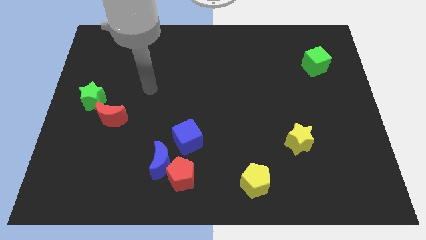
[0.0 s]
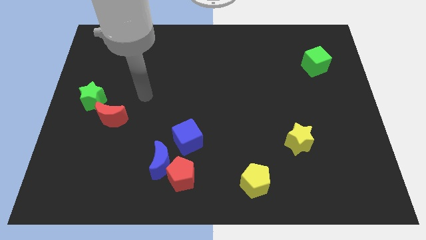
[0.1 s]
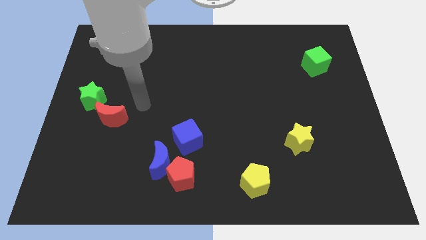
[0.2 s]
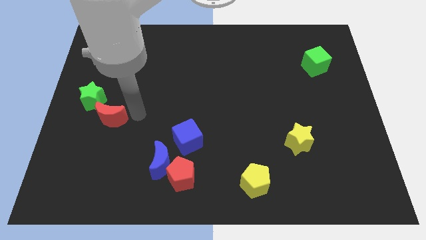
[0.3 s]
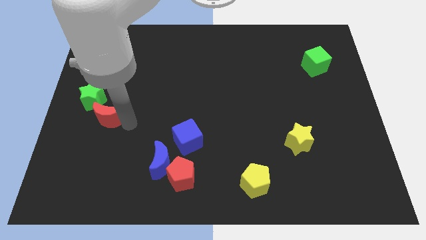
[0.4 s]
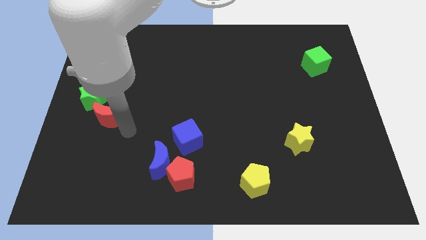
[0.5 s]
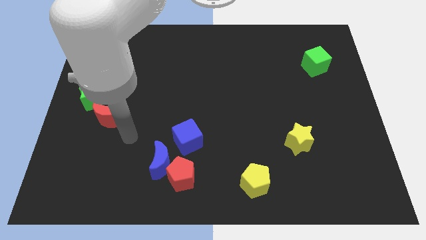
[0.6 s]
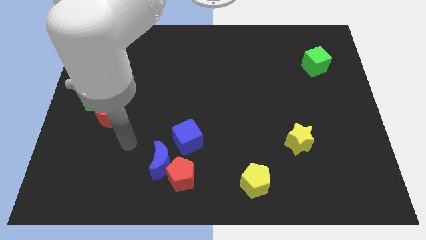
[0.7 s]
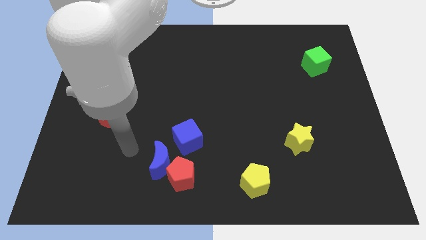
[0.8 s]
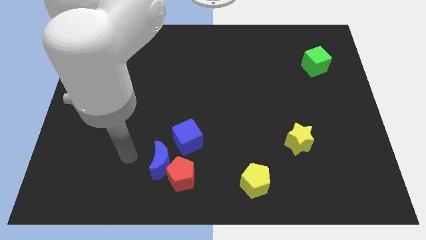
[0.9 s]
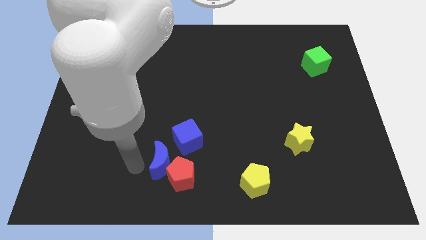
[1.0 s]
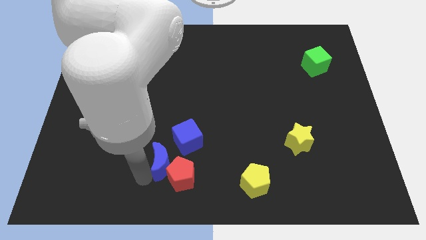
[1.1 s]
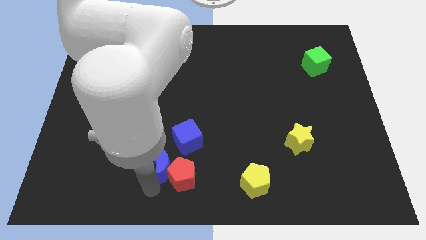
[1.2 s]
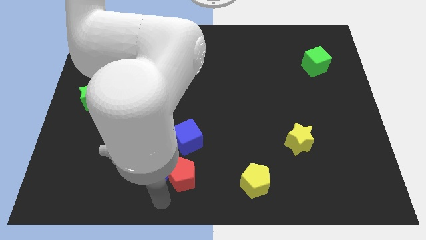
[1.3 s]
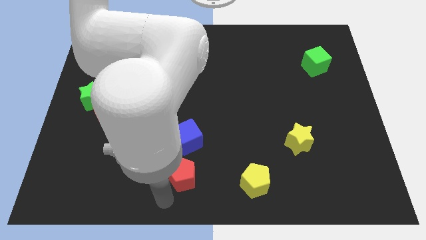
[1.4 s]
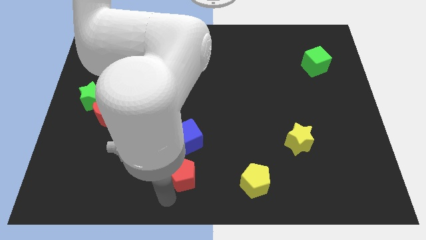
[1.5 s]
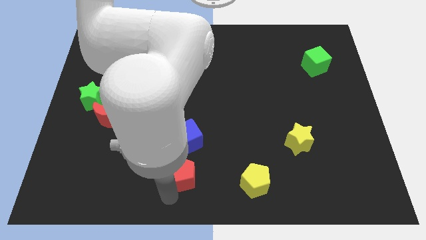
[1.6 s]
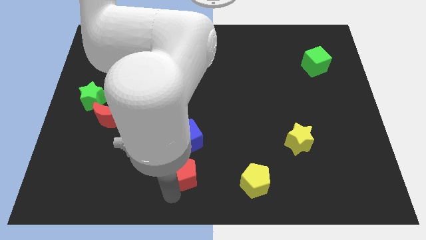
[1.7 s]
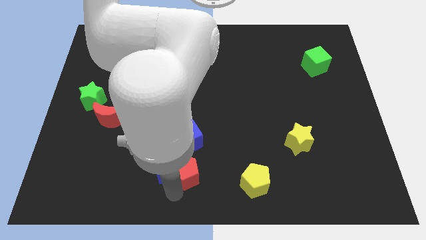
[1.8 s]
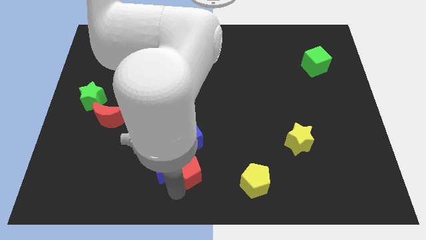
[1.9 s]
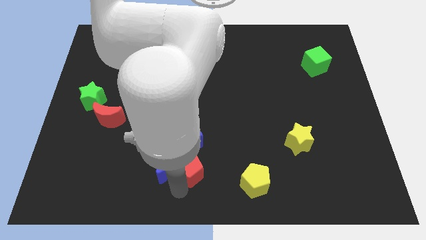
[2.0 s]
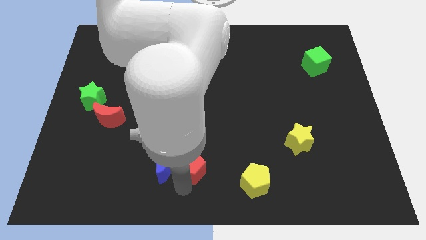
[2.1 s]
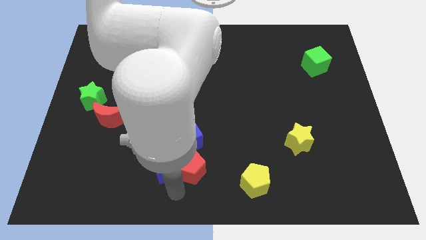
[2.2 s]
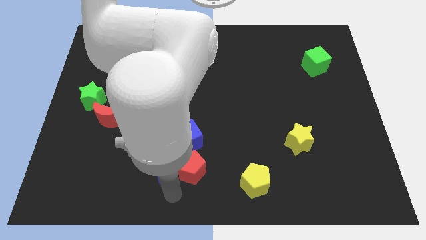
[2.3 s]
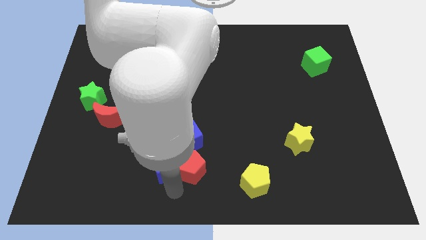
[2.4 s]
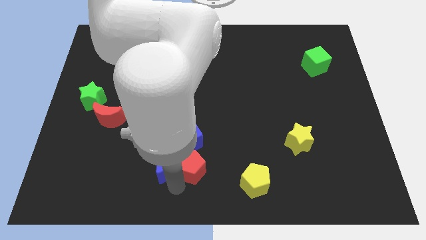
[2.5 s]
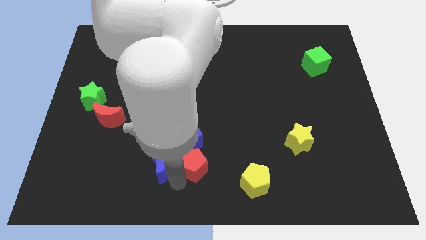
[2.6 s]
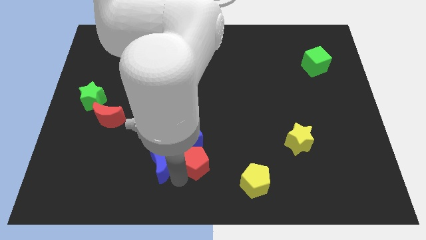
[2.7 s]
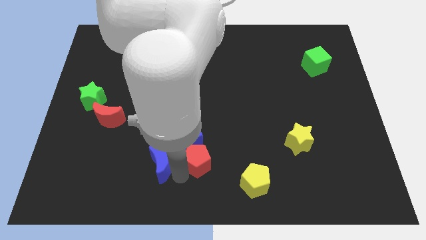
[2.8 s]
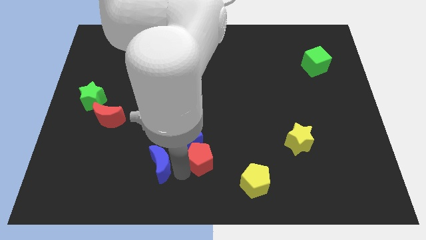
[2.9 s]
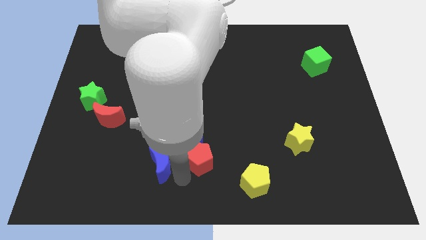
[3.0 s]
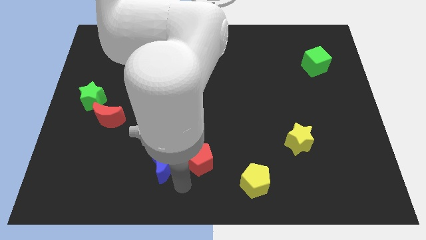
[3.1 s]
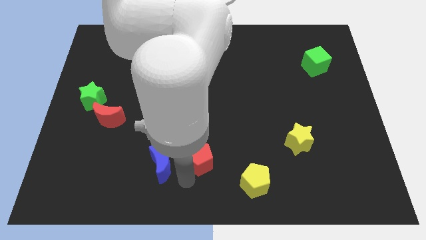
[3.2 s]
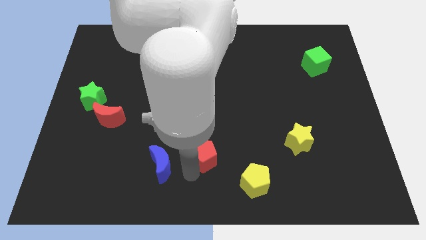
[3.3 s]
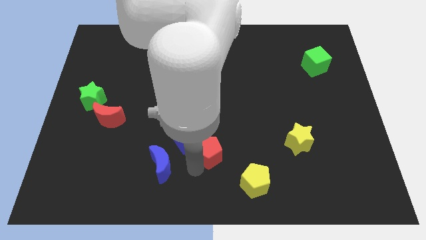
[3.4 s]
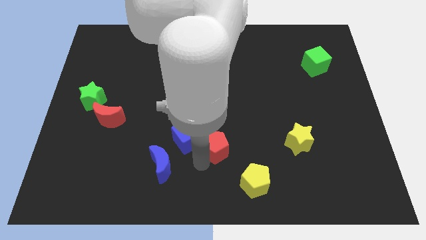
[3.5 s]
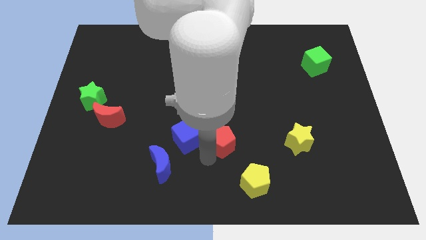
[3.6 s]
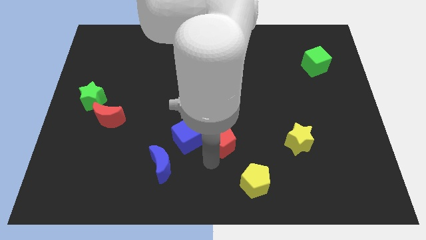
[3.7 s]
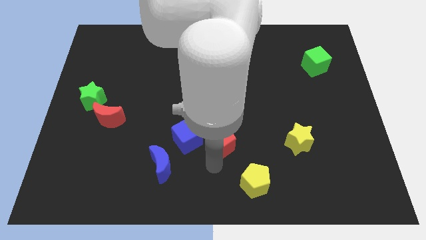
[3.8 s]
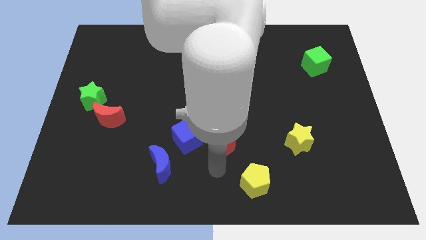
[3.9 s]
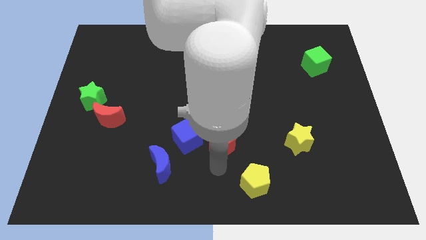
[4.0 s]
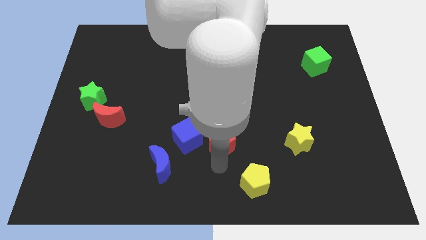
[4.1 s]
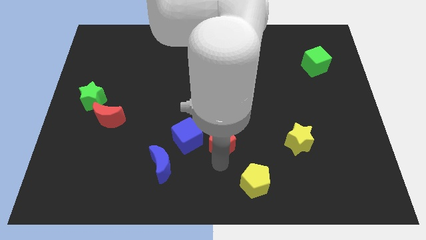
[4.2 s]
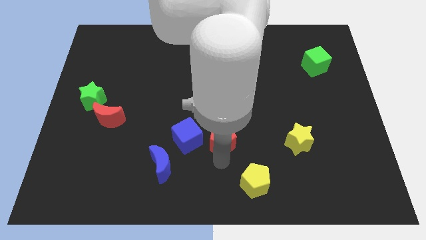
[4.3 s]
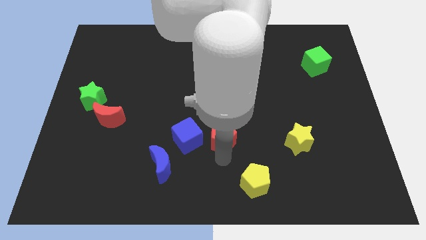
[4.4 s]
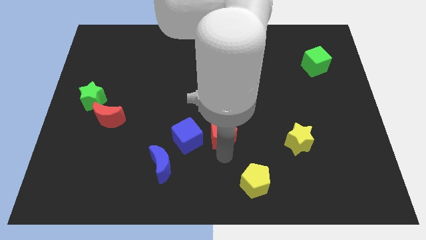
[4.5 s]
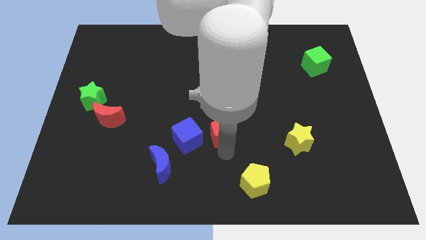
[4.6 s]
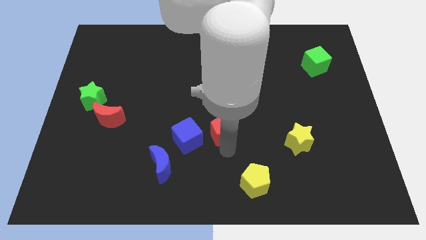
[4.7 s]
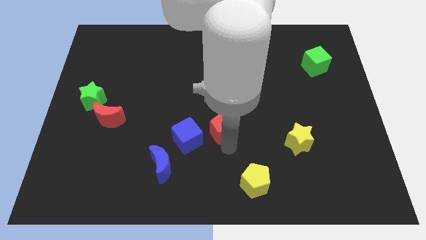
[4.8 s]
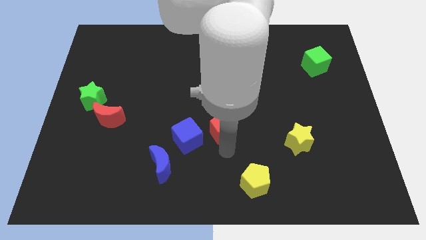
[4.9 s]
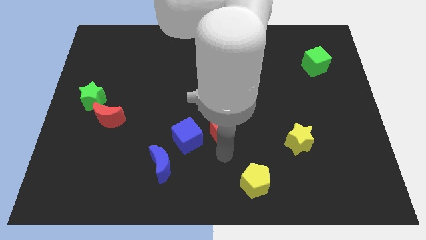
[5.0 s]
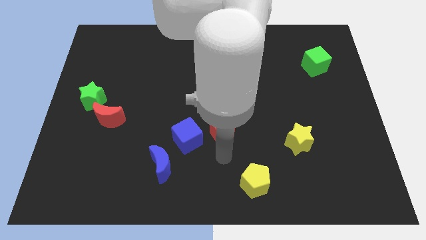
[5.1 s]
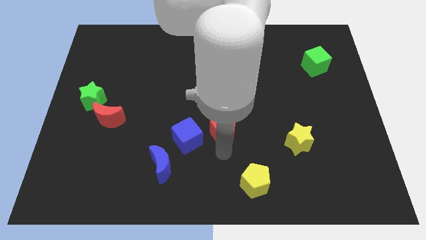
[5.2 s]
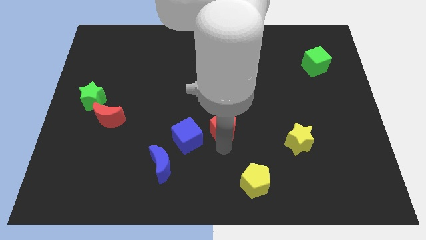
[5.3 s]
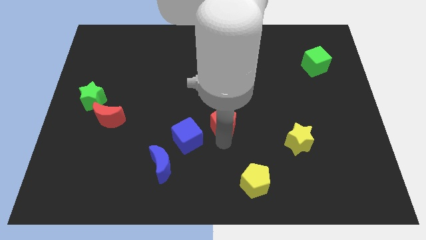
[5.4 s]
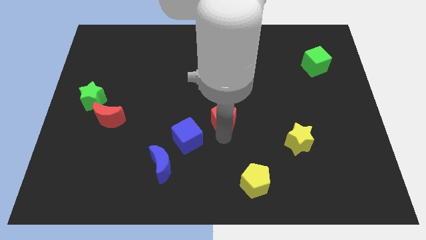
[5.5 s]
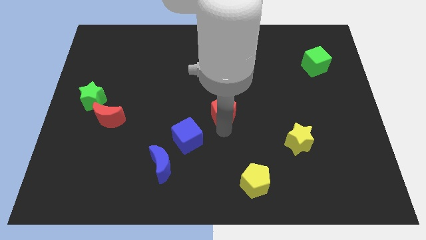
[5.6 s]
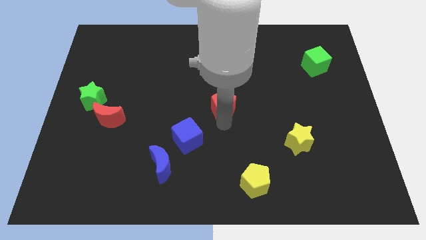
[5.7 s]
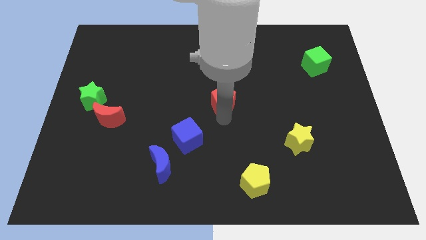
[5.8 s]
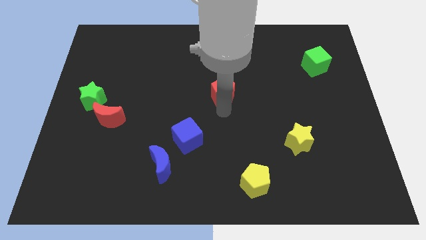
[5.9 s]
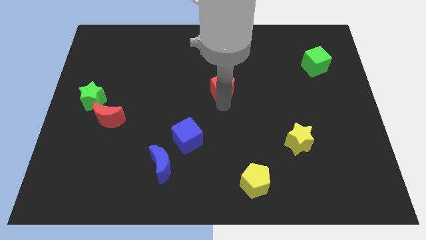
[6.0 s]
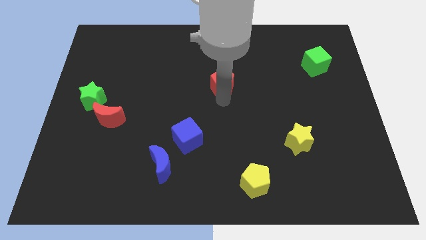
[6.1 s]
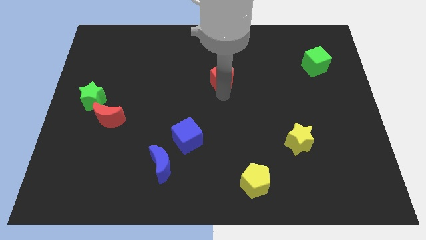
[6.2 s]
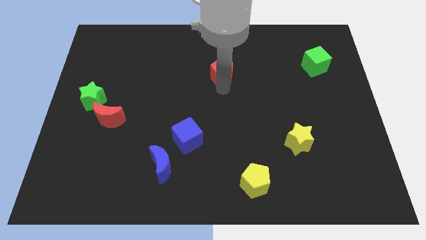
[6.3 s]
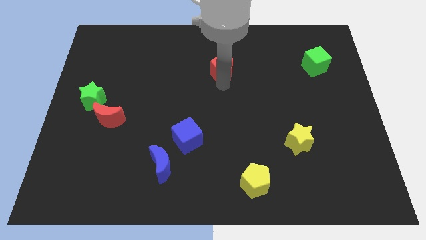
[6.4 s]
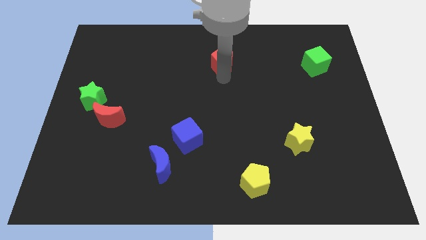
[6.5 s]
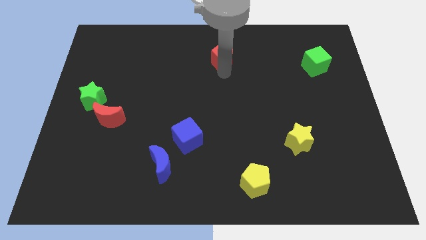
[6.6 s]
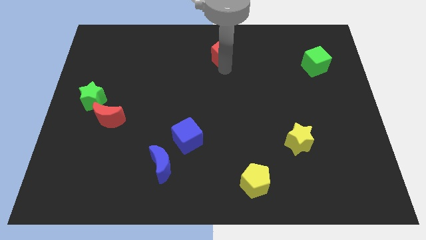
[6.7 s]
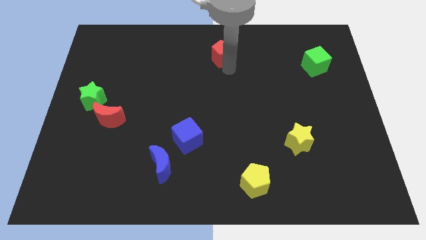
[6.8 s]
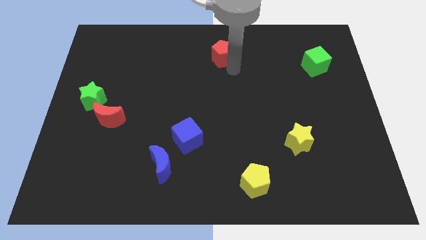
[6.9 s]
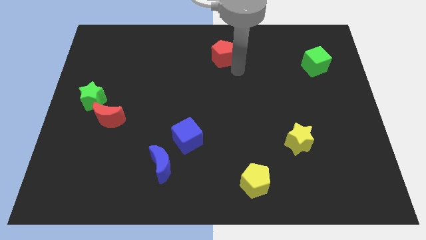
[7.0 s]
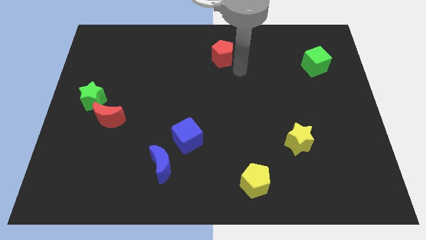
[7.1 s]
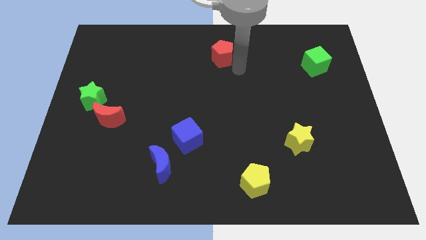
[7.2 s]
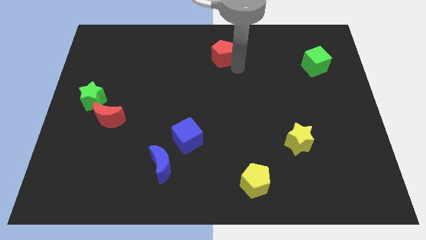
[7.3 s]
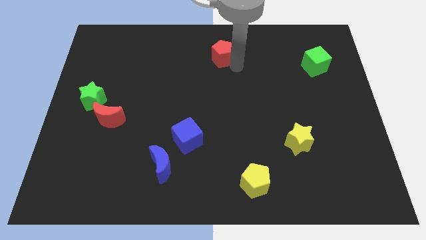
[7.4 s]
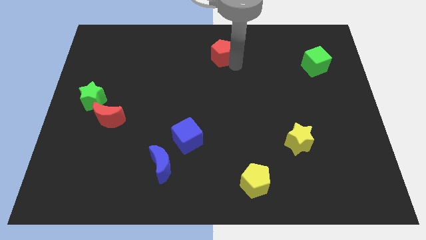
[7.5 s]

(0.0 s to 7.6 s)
push the red pentagon to the top
